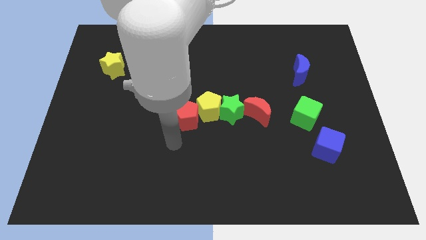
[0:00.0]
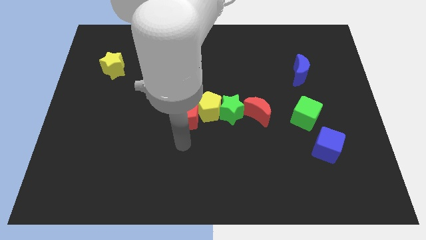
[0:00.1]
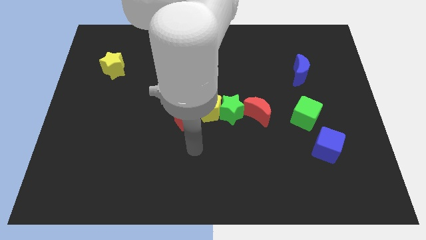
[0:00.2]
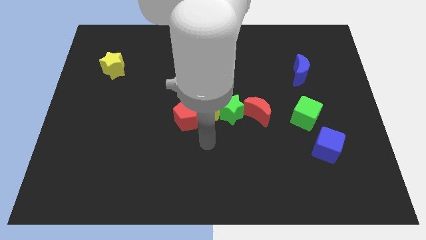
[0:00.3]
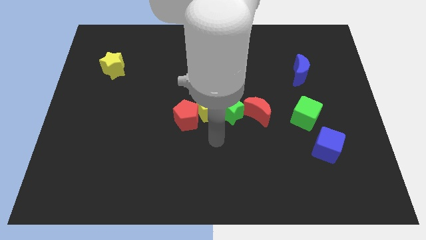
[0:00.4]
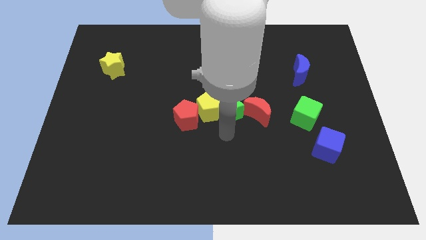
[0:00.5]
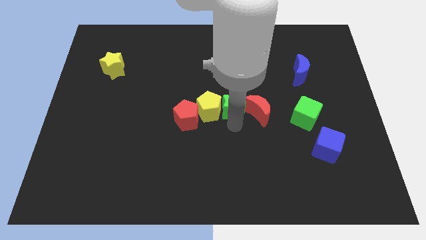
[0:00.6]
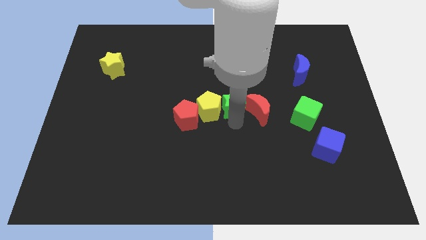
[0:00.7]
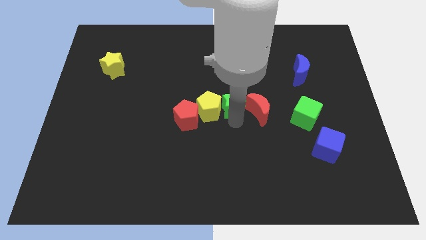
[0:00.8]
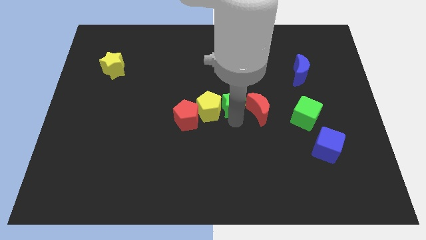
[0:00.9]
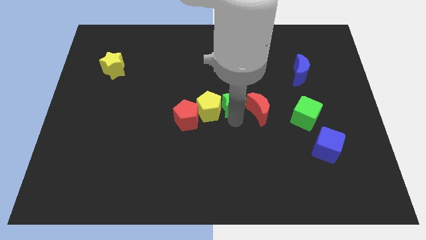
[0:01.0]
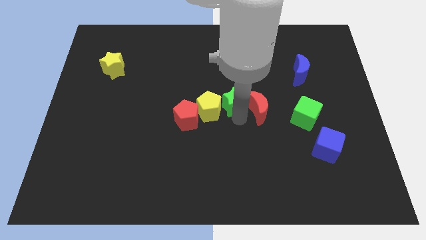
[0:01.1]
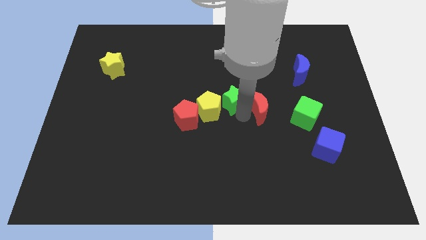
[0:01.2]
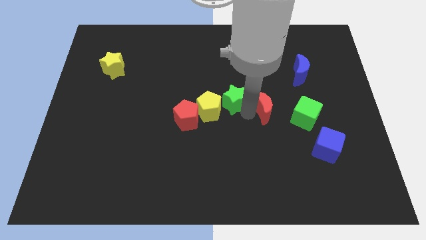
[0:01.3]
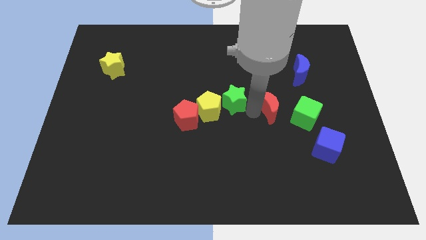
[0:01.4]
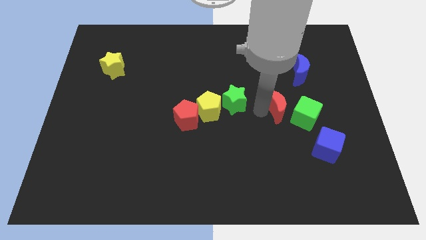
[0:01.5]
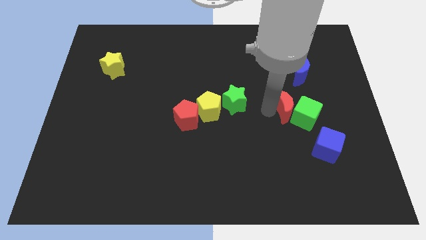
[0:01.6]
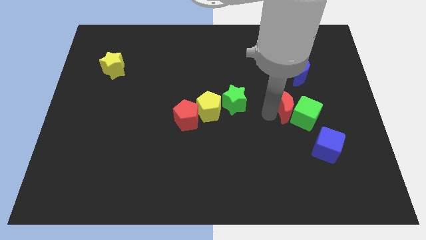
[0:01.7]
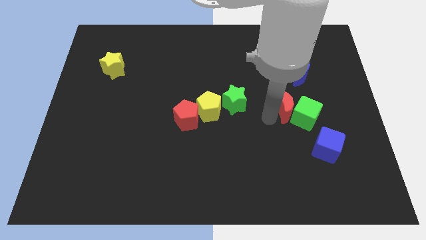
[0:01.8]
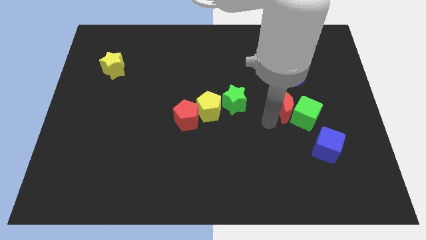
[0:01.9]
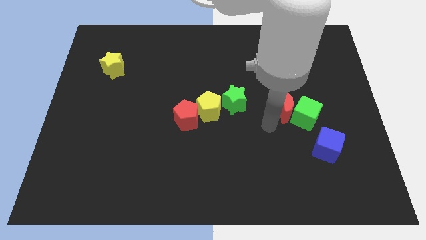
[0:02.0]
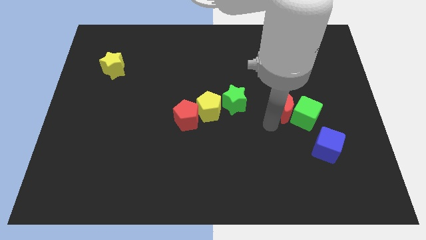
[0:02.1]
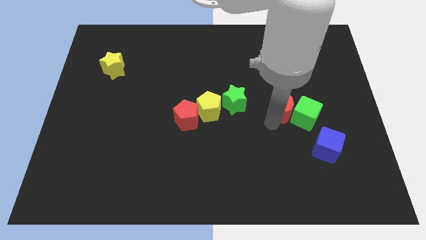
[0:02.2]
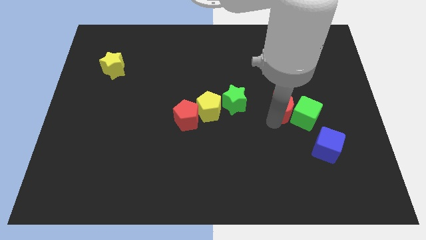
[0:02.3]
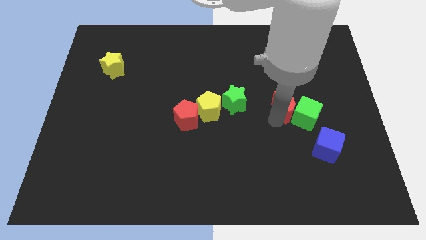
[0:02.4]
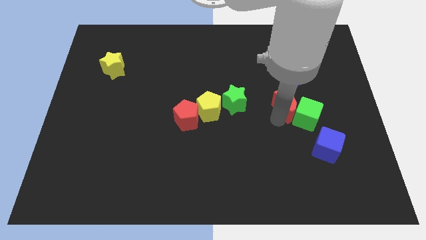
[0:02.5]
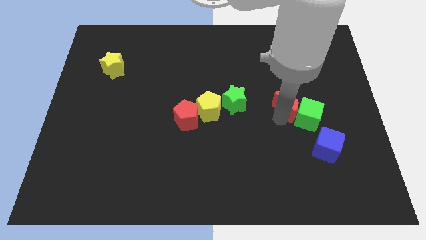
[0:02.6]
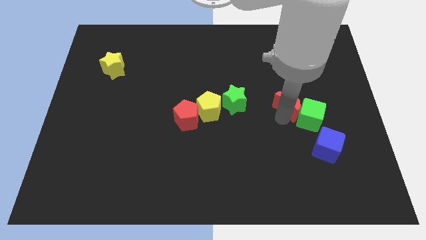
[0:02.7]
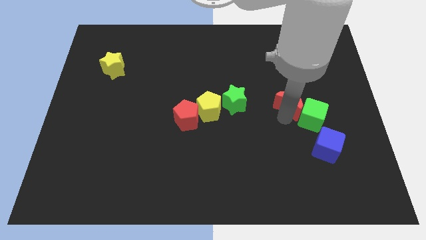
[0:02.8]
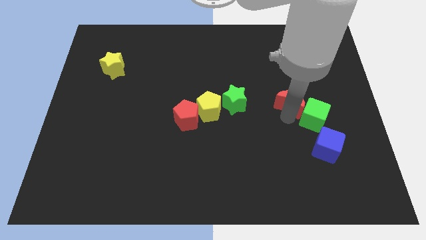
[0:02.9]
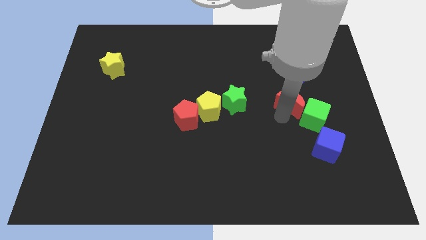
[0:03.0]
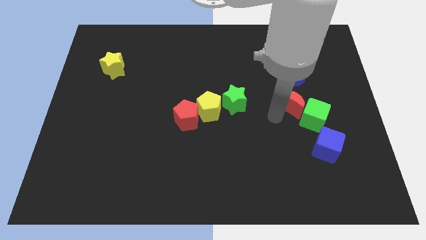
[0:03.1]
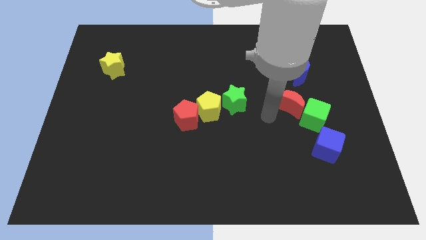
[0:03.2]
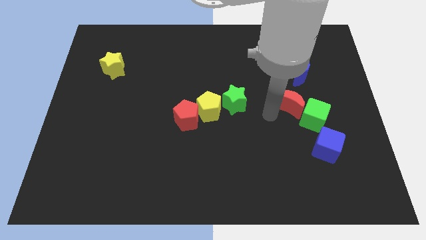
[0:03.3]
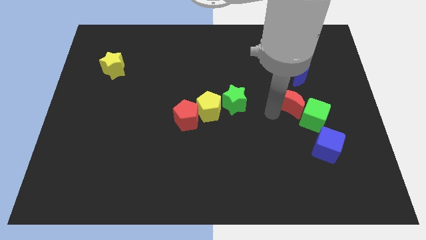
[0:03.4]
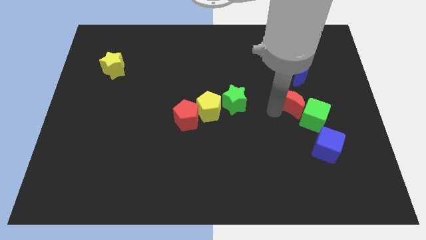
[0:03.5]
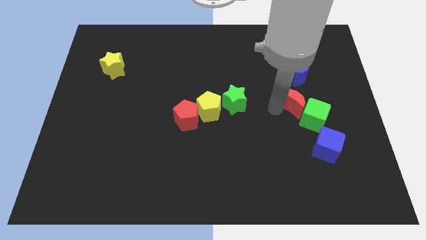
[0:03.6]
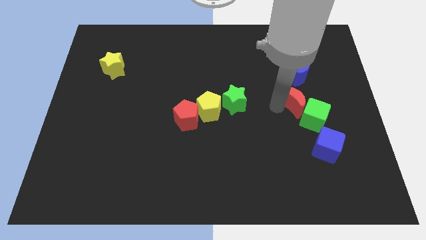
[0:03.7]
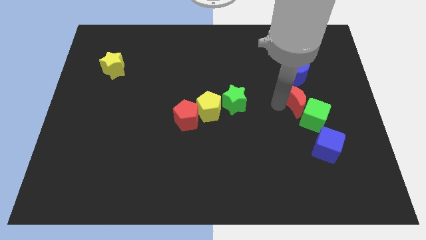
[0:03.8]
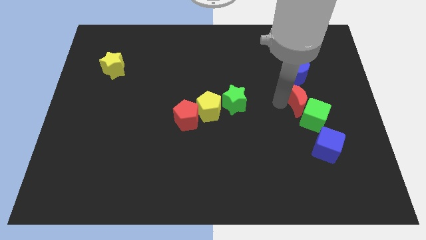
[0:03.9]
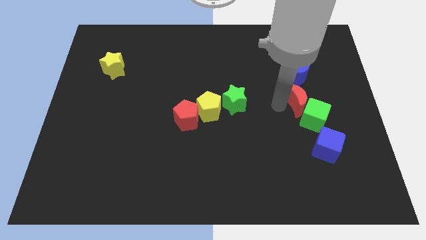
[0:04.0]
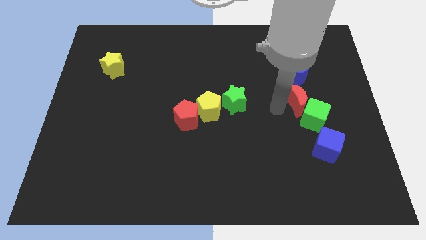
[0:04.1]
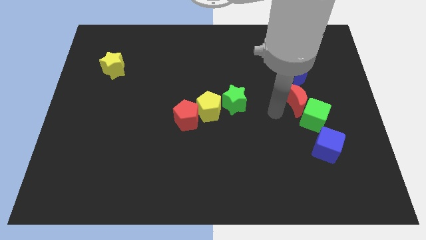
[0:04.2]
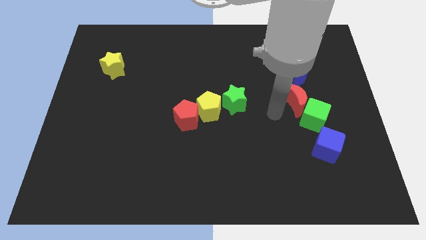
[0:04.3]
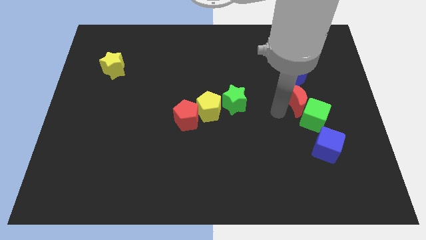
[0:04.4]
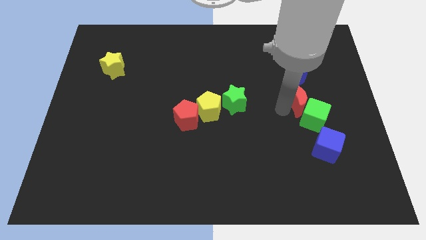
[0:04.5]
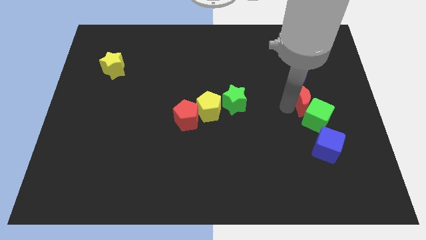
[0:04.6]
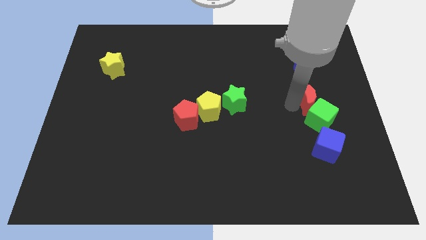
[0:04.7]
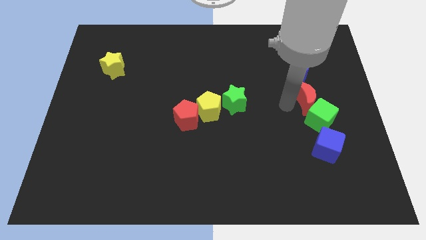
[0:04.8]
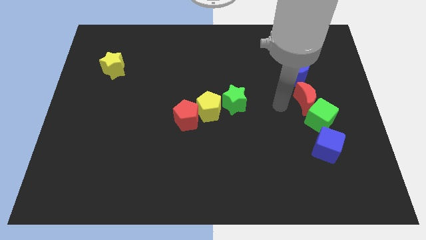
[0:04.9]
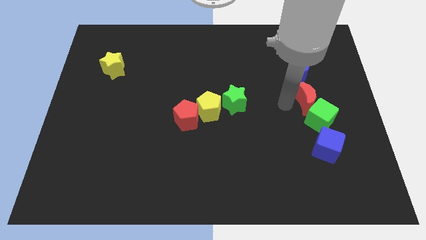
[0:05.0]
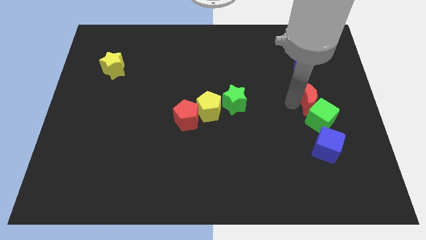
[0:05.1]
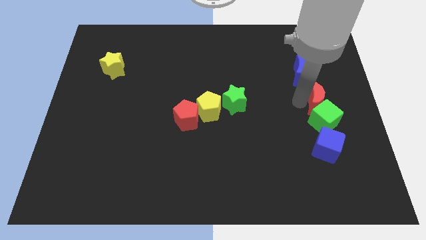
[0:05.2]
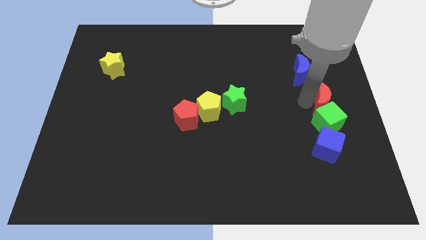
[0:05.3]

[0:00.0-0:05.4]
move the red moon to the center right

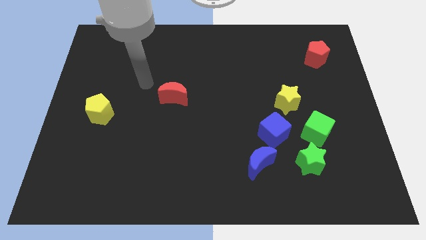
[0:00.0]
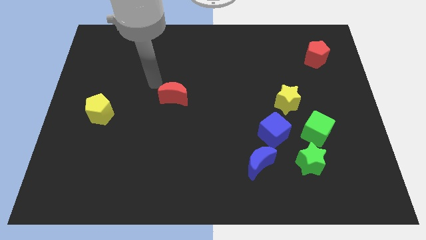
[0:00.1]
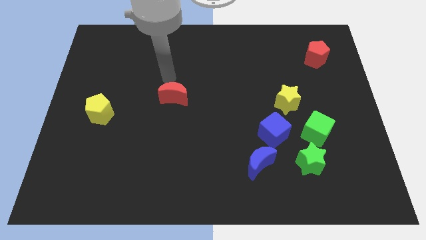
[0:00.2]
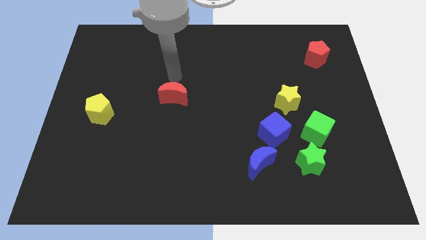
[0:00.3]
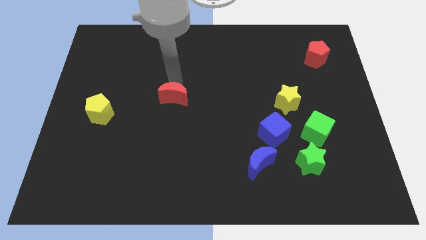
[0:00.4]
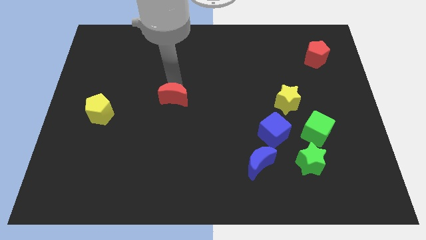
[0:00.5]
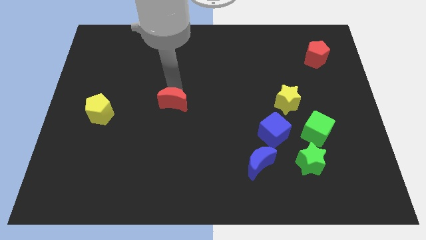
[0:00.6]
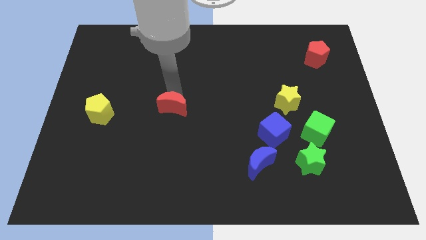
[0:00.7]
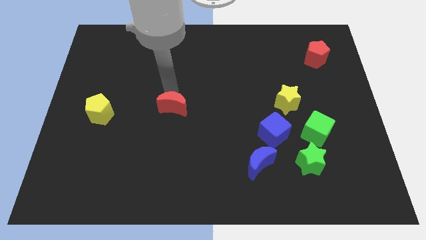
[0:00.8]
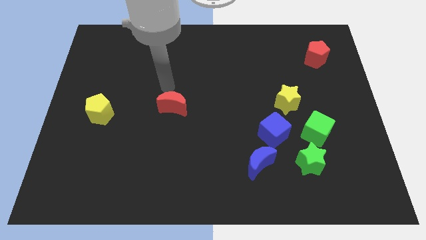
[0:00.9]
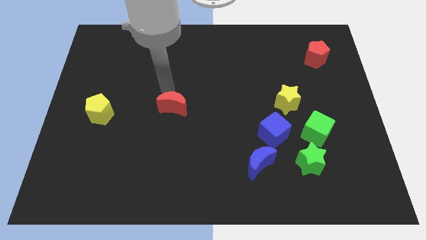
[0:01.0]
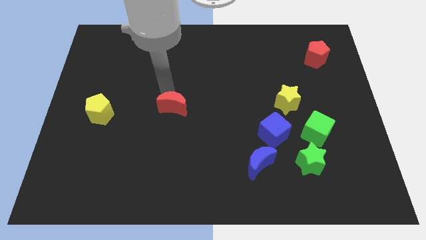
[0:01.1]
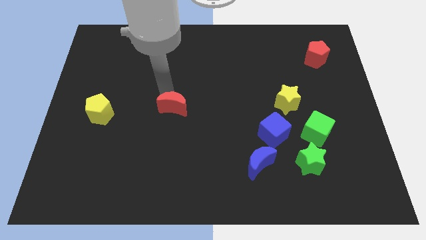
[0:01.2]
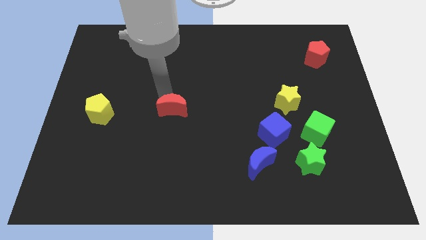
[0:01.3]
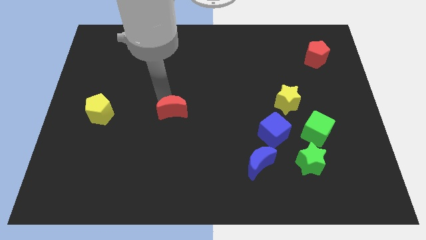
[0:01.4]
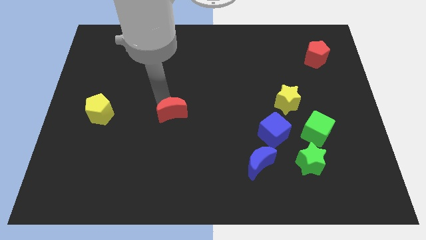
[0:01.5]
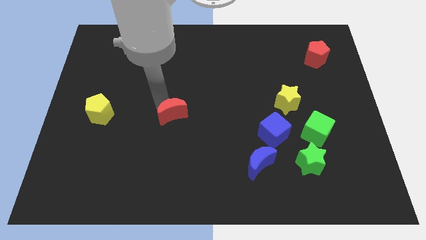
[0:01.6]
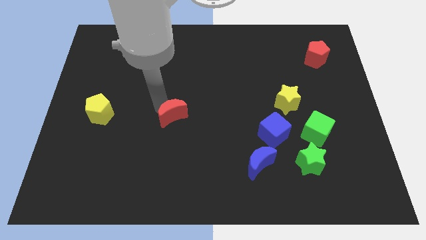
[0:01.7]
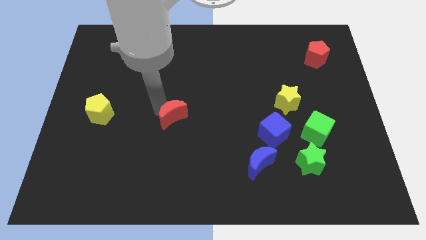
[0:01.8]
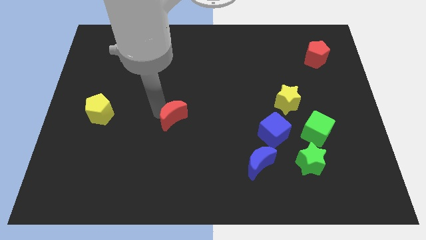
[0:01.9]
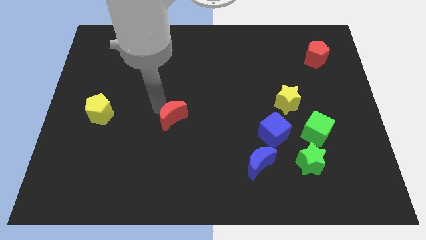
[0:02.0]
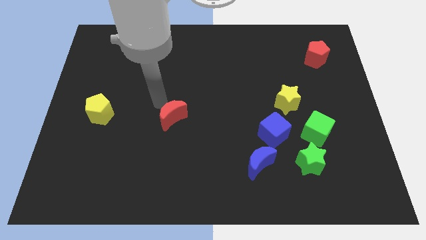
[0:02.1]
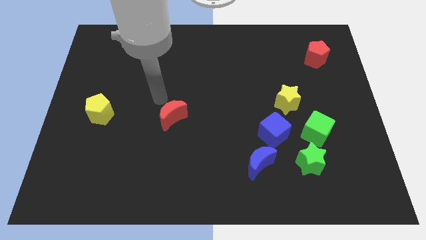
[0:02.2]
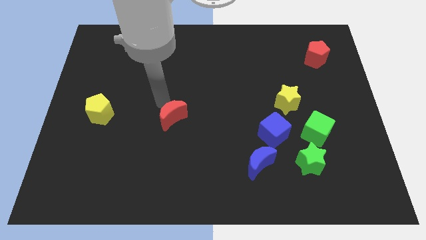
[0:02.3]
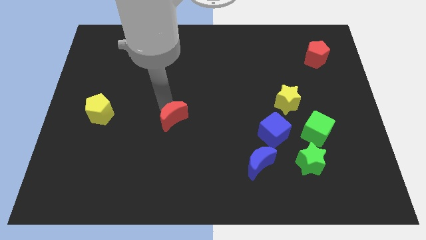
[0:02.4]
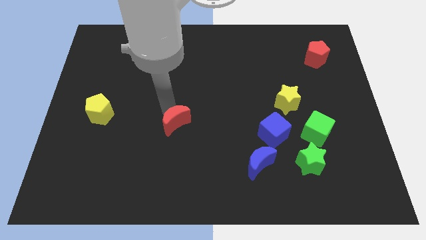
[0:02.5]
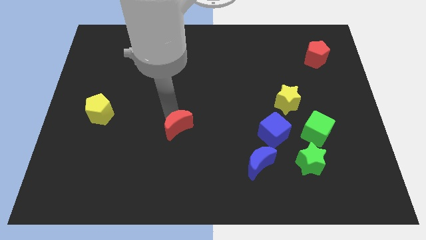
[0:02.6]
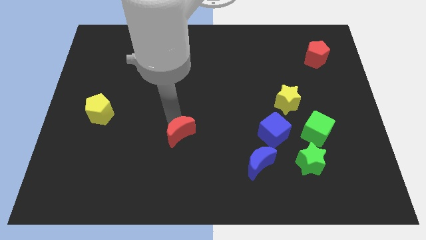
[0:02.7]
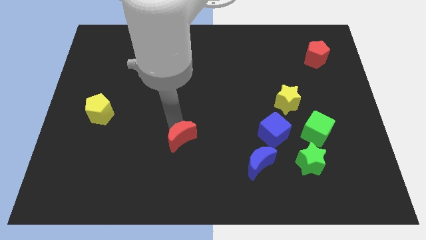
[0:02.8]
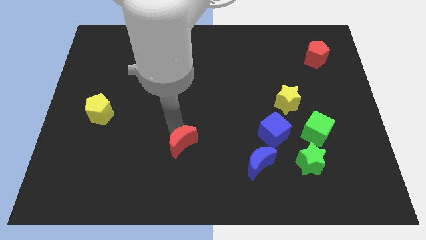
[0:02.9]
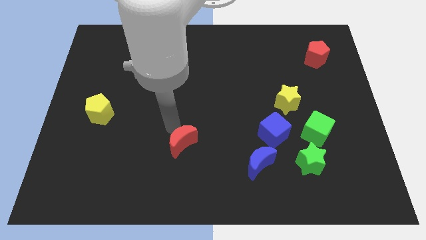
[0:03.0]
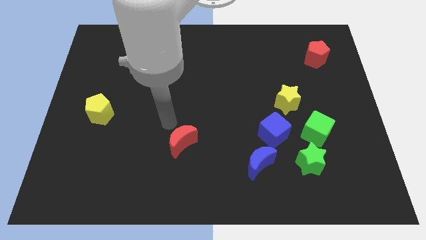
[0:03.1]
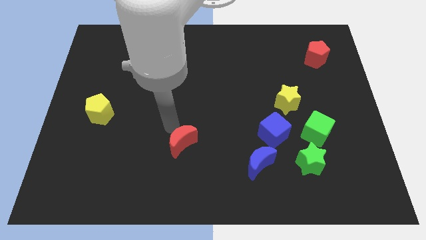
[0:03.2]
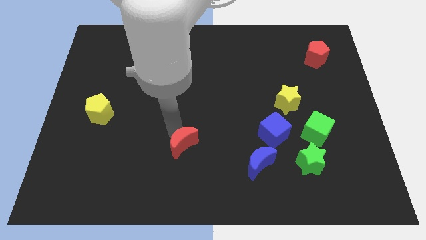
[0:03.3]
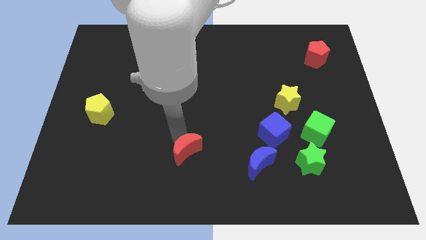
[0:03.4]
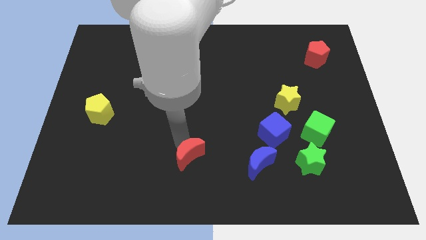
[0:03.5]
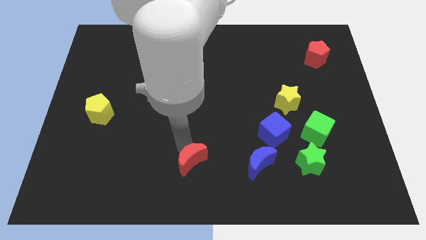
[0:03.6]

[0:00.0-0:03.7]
move the red moon to the bottom side
